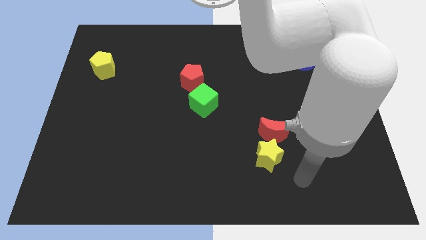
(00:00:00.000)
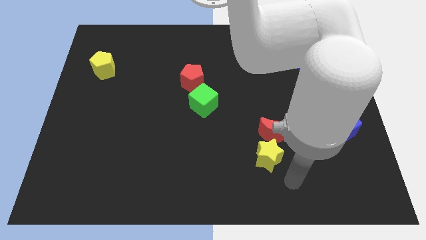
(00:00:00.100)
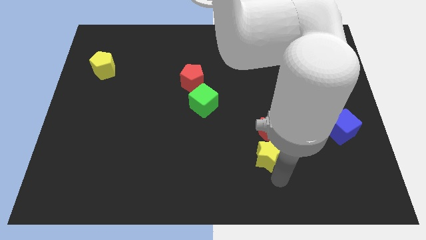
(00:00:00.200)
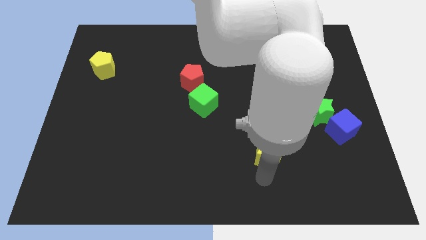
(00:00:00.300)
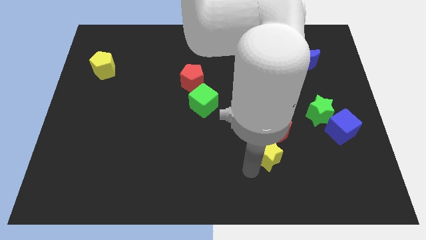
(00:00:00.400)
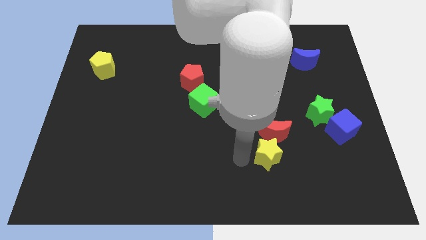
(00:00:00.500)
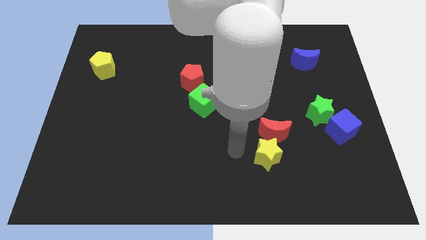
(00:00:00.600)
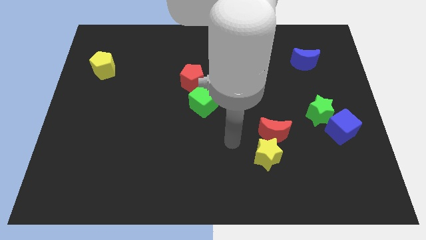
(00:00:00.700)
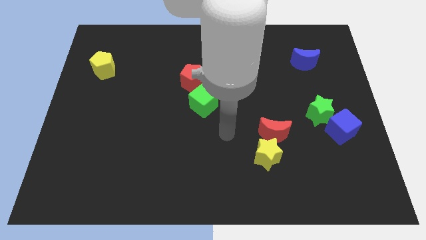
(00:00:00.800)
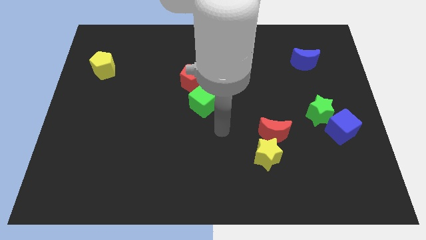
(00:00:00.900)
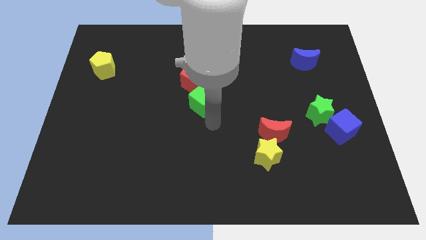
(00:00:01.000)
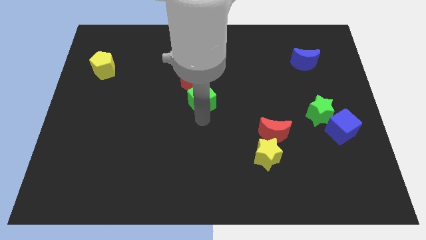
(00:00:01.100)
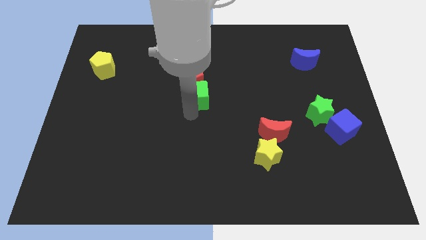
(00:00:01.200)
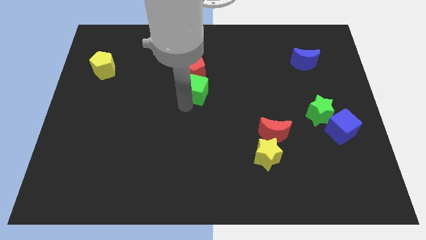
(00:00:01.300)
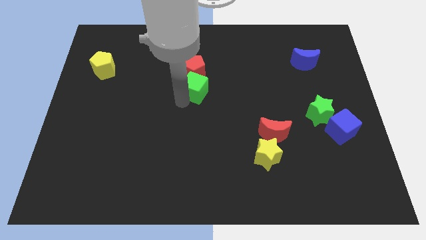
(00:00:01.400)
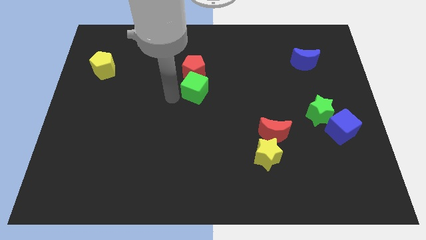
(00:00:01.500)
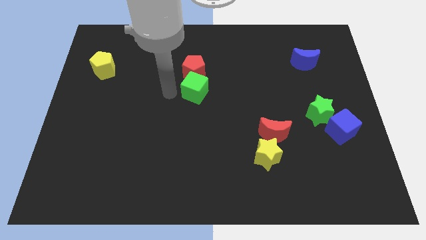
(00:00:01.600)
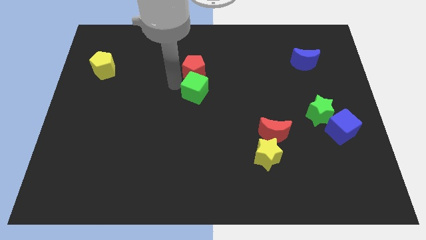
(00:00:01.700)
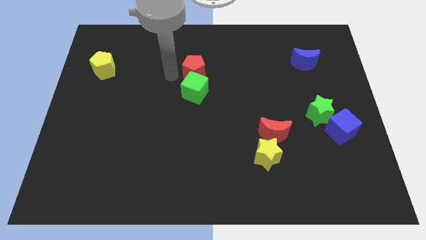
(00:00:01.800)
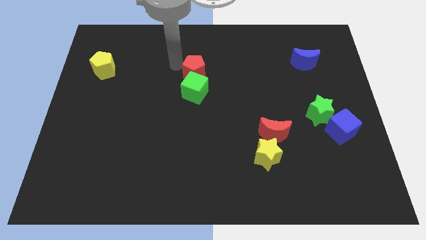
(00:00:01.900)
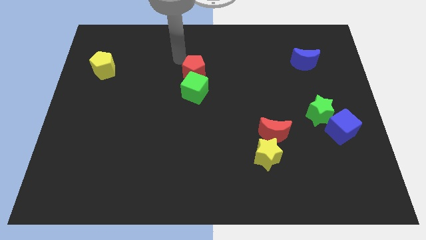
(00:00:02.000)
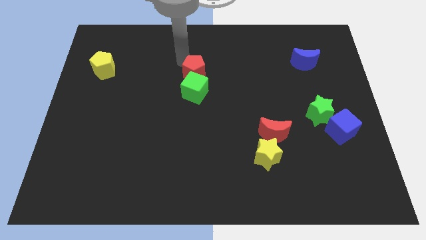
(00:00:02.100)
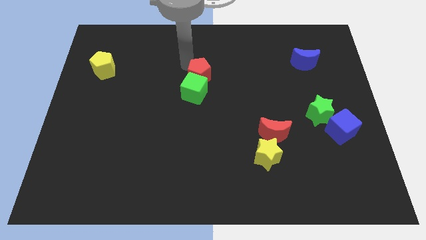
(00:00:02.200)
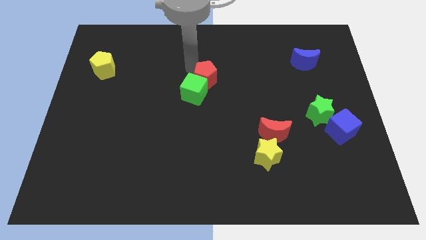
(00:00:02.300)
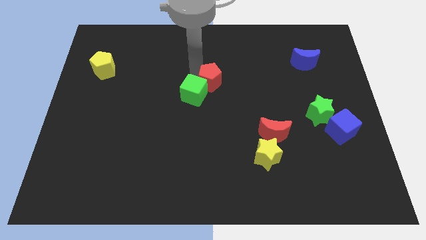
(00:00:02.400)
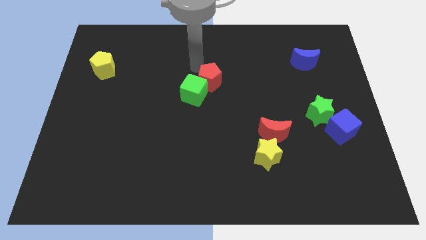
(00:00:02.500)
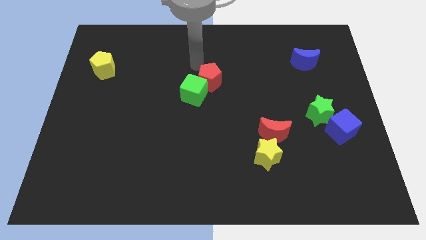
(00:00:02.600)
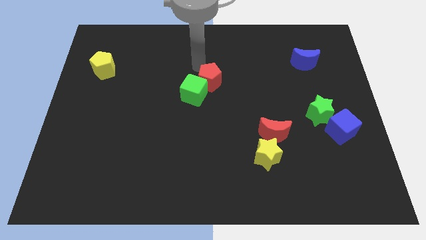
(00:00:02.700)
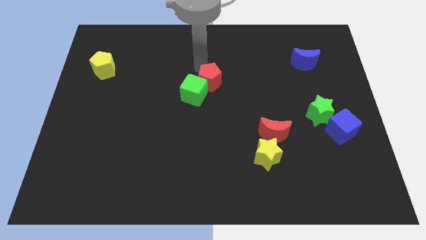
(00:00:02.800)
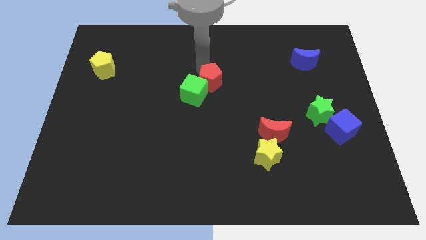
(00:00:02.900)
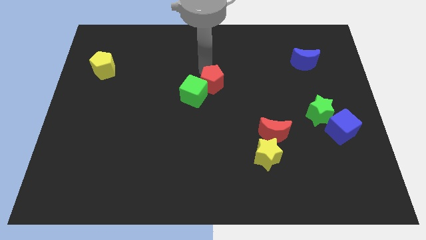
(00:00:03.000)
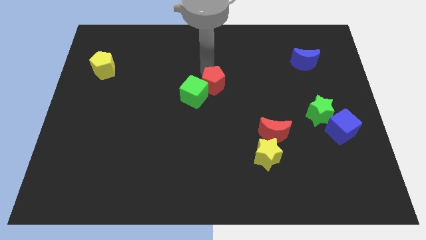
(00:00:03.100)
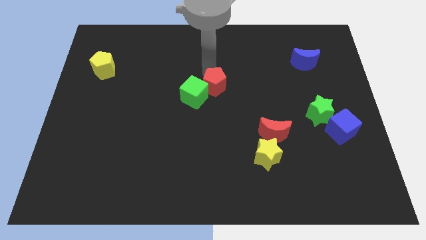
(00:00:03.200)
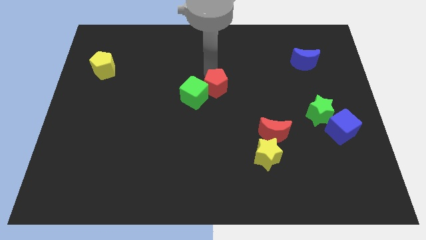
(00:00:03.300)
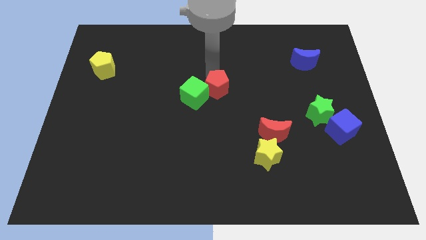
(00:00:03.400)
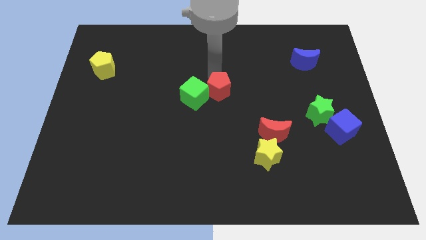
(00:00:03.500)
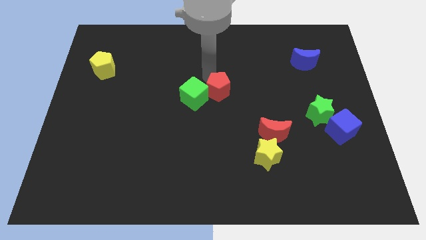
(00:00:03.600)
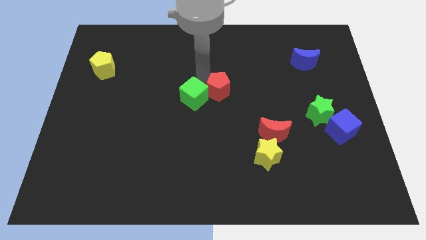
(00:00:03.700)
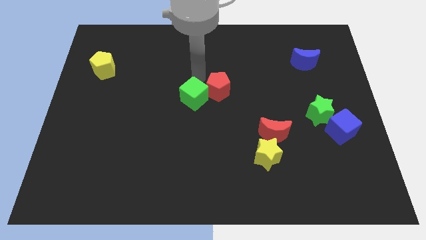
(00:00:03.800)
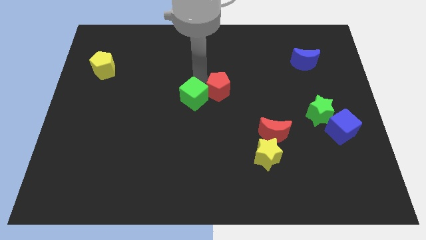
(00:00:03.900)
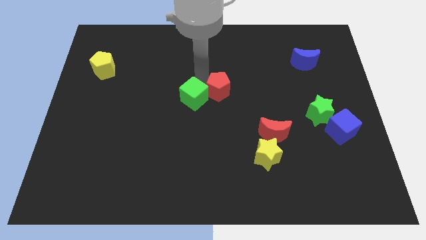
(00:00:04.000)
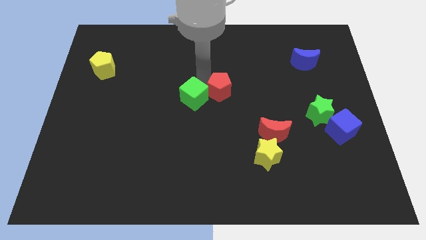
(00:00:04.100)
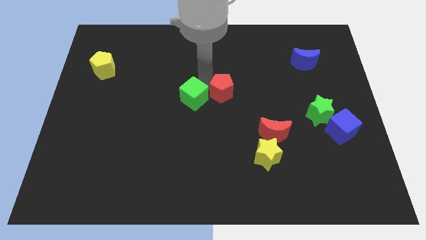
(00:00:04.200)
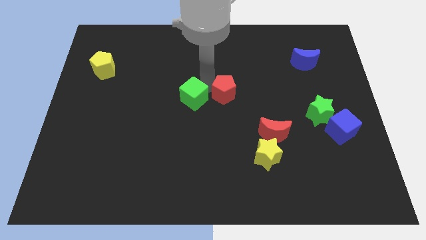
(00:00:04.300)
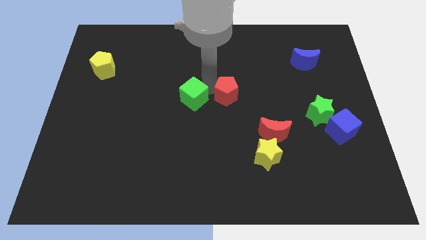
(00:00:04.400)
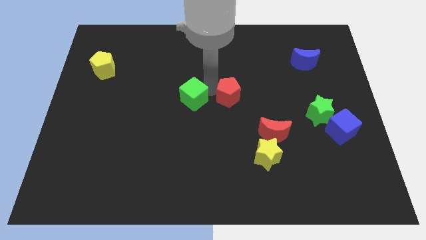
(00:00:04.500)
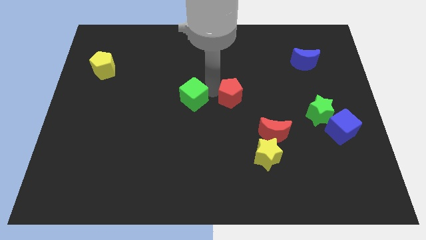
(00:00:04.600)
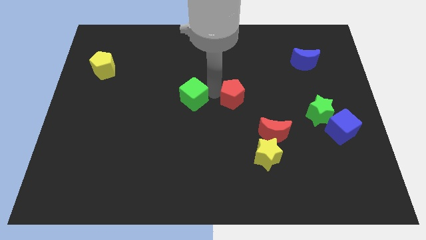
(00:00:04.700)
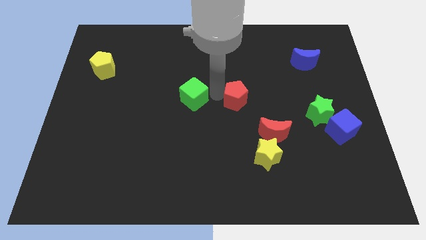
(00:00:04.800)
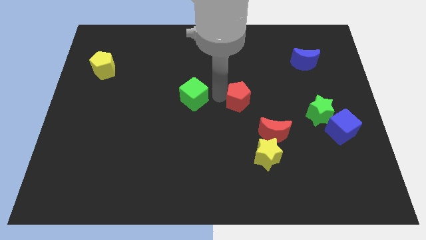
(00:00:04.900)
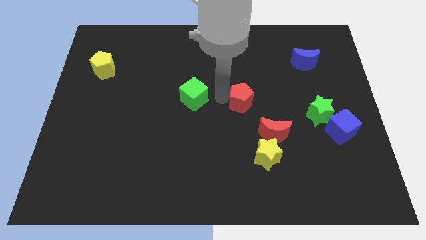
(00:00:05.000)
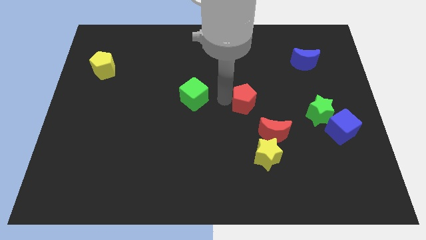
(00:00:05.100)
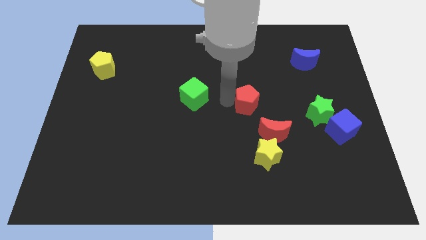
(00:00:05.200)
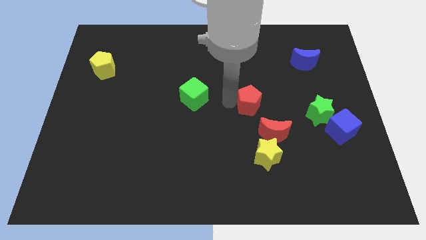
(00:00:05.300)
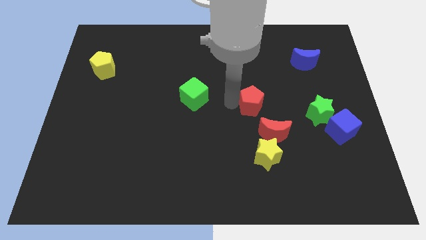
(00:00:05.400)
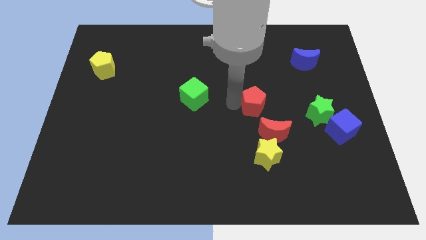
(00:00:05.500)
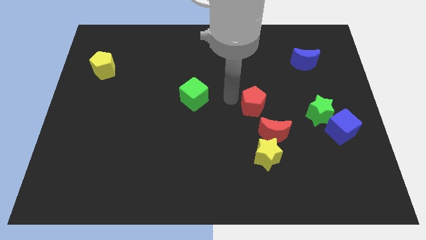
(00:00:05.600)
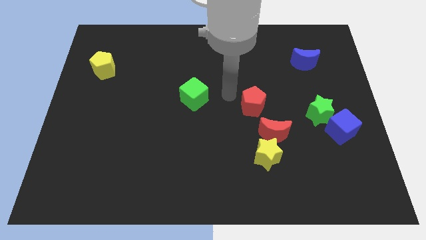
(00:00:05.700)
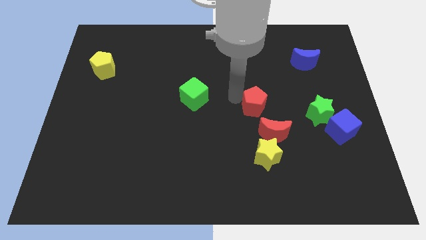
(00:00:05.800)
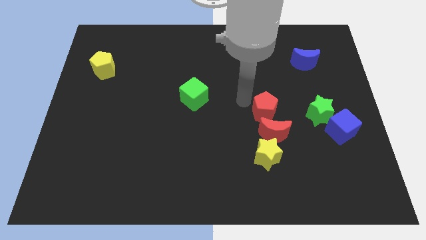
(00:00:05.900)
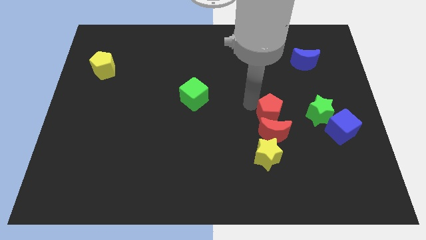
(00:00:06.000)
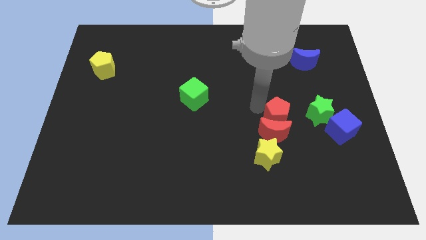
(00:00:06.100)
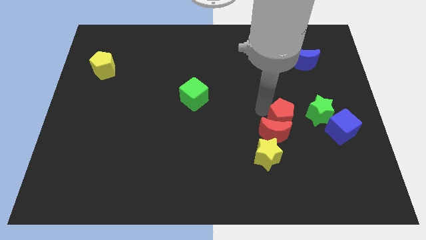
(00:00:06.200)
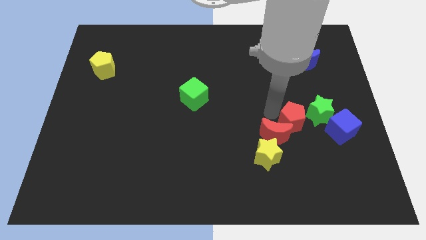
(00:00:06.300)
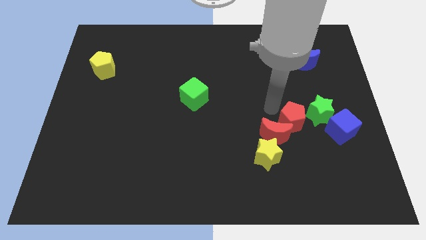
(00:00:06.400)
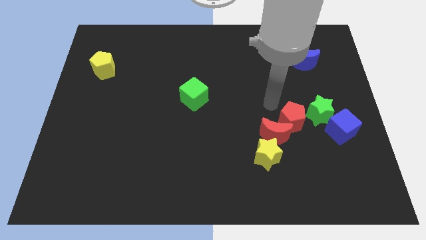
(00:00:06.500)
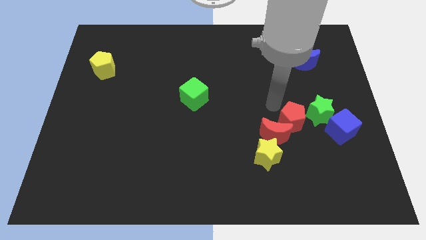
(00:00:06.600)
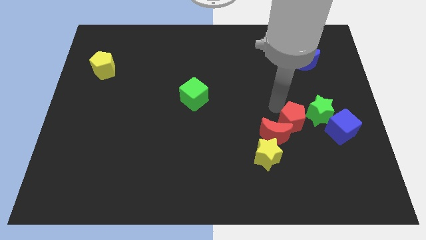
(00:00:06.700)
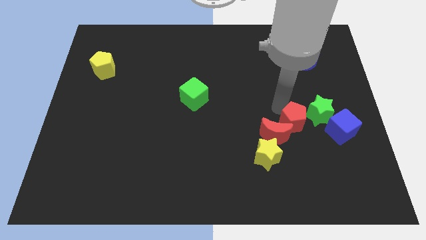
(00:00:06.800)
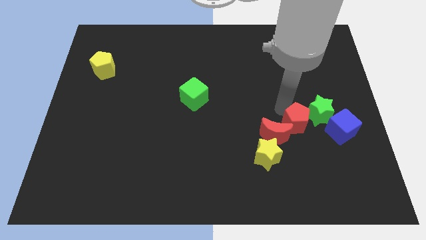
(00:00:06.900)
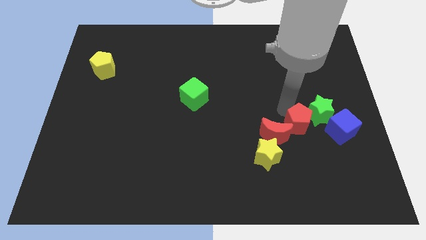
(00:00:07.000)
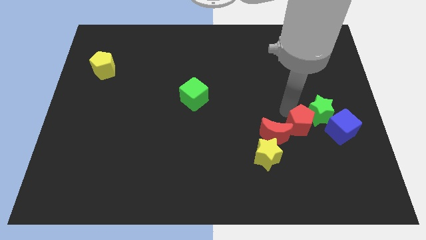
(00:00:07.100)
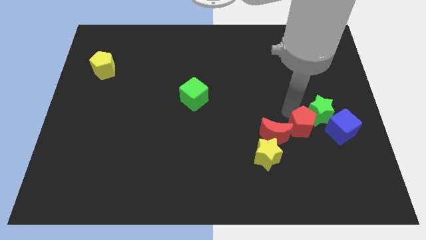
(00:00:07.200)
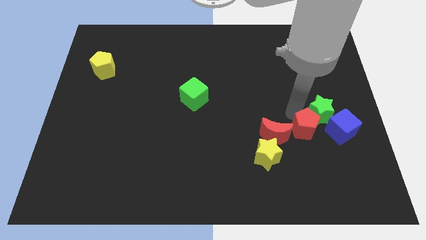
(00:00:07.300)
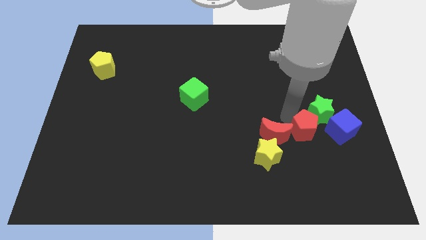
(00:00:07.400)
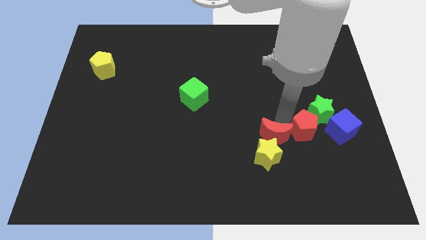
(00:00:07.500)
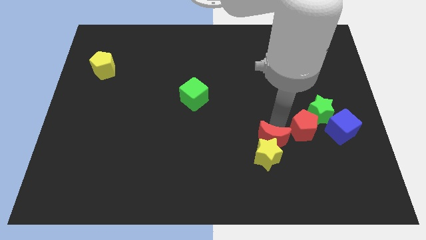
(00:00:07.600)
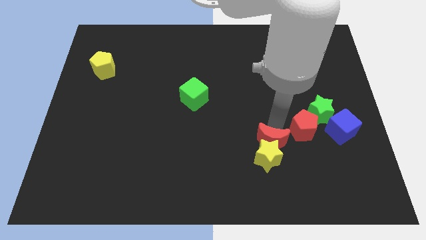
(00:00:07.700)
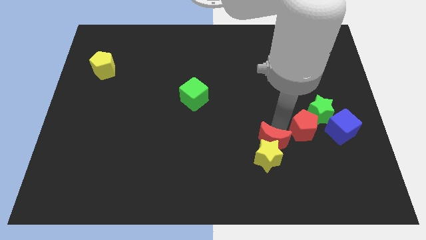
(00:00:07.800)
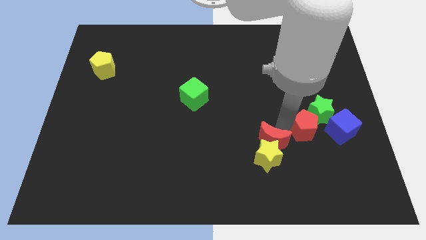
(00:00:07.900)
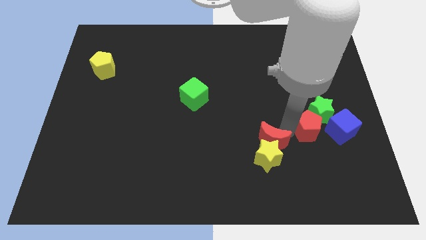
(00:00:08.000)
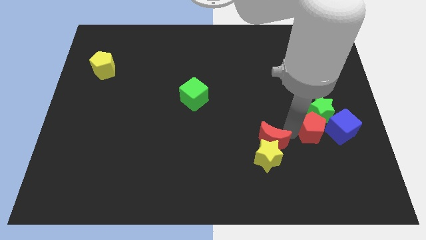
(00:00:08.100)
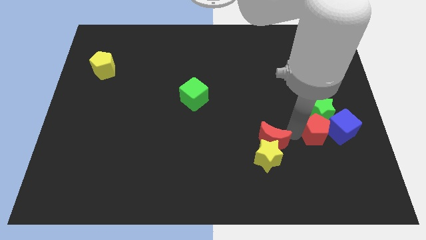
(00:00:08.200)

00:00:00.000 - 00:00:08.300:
put the red pentagon close to the blue cube
